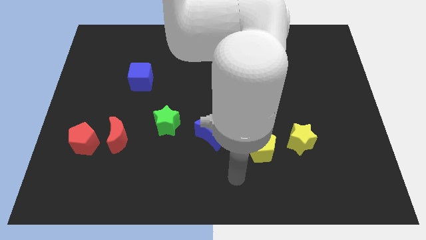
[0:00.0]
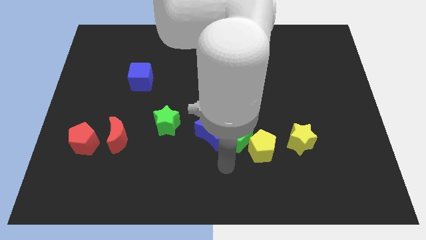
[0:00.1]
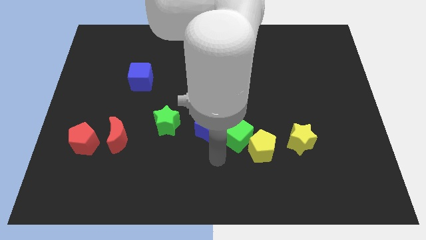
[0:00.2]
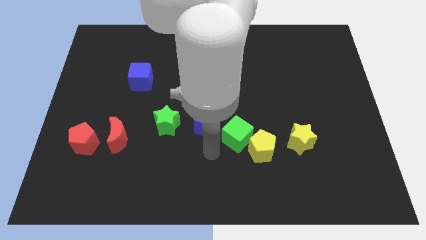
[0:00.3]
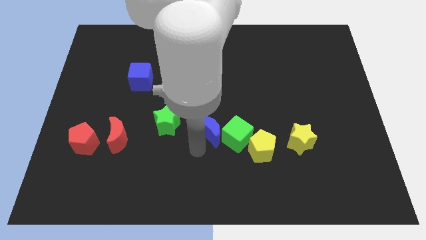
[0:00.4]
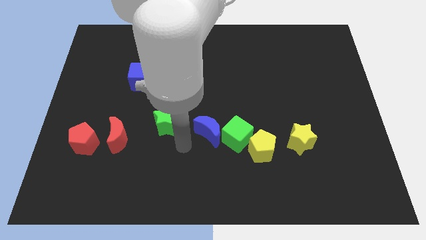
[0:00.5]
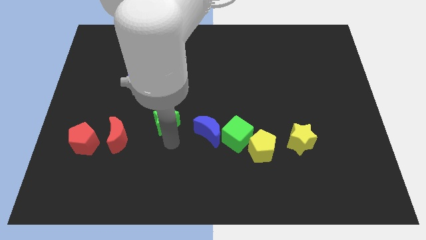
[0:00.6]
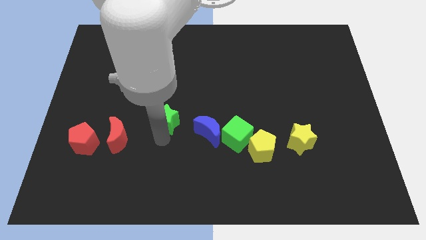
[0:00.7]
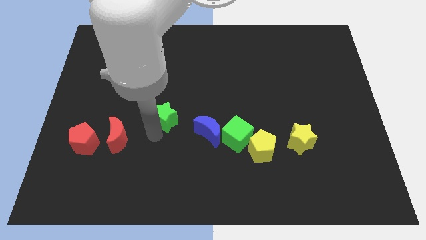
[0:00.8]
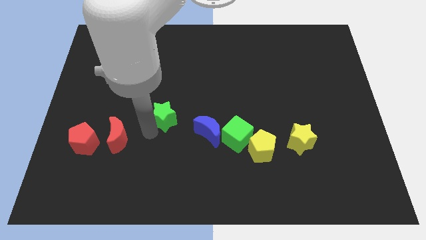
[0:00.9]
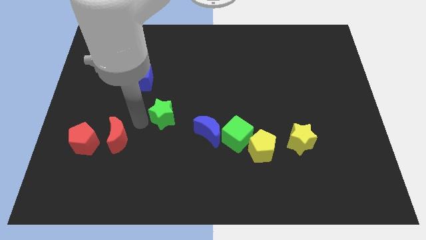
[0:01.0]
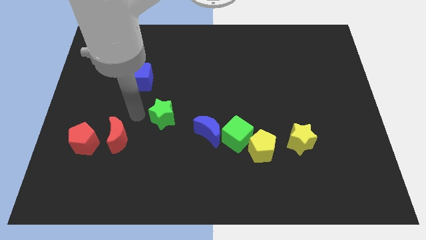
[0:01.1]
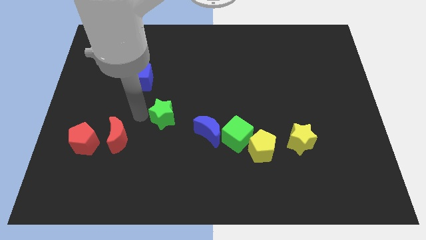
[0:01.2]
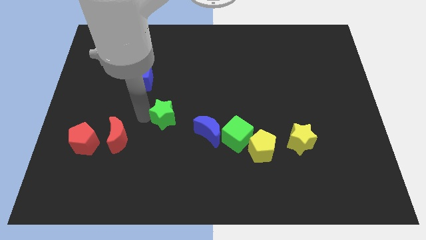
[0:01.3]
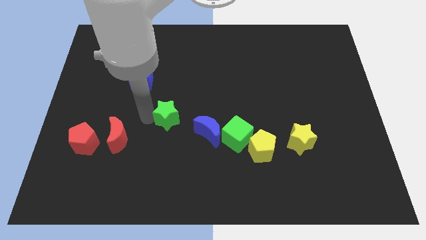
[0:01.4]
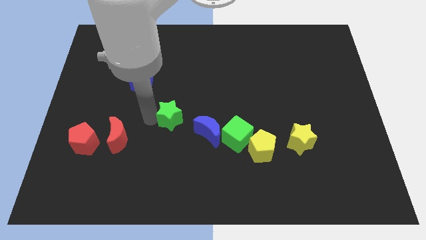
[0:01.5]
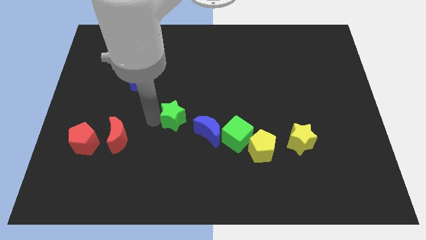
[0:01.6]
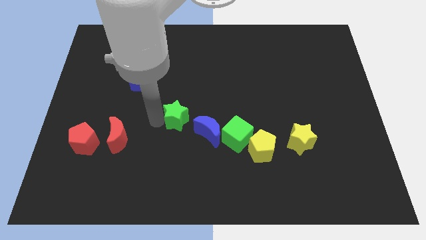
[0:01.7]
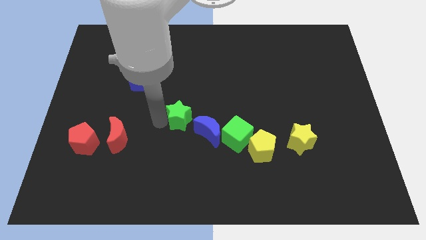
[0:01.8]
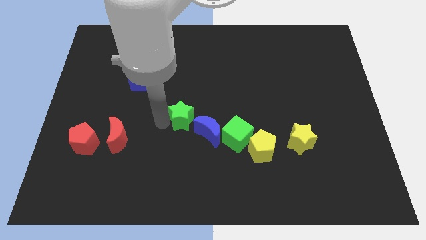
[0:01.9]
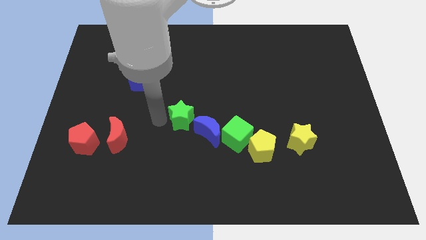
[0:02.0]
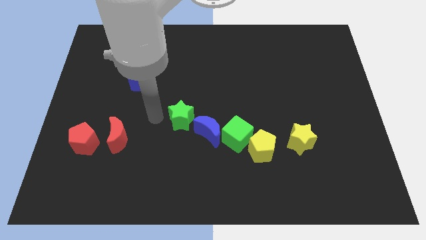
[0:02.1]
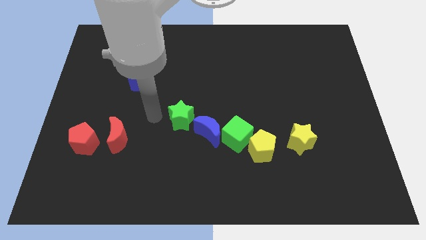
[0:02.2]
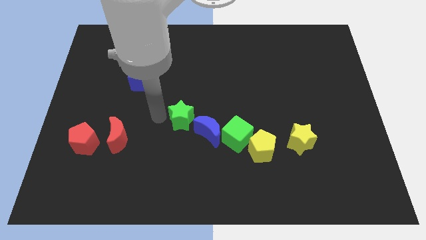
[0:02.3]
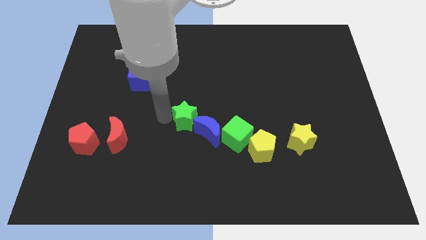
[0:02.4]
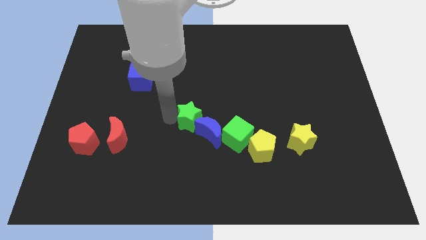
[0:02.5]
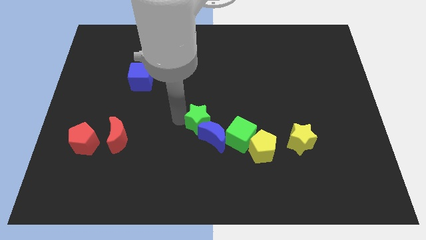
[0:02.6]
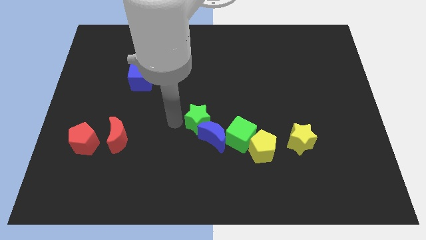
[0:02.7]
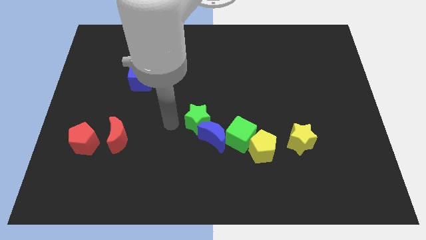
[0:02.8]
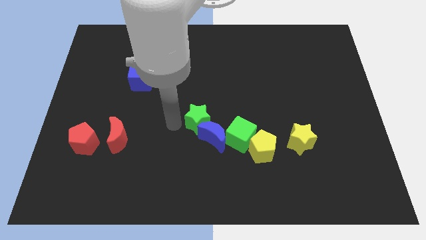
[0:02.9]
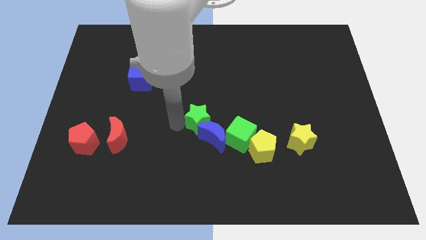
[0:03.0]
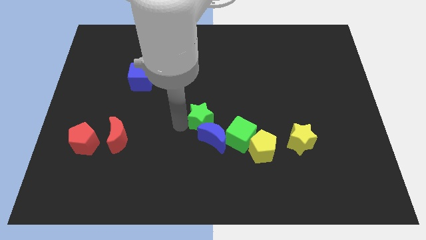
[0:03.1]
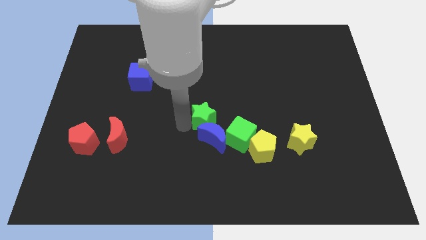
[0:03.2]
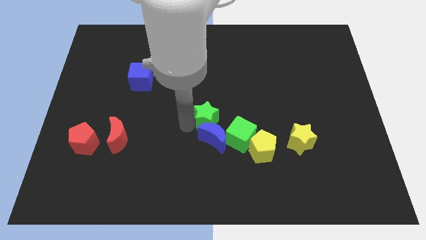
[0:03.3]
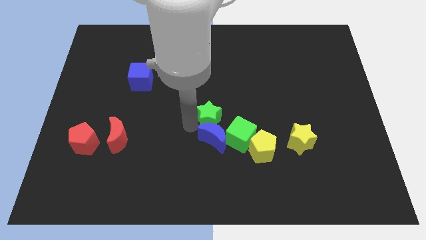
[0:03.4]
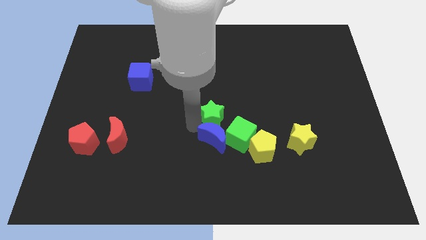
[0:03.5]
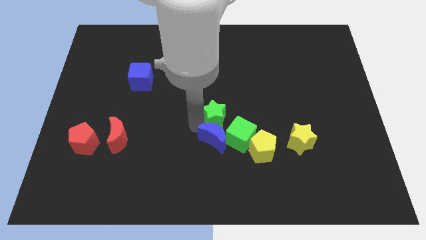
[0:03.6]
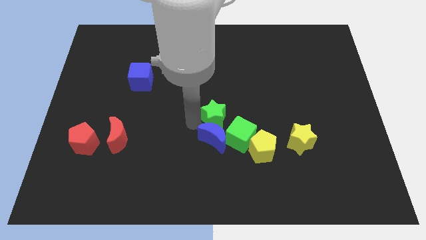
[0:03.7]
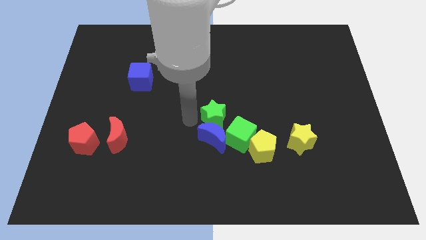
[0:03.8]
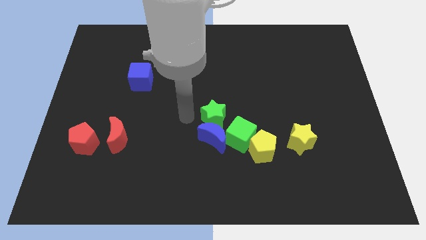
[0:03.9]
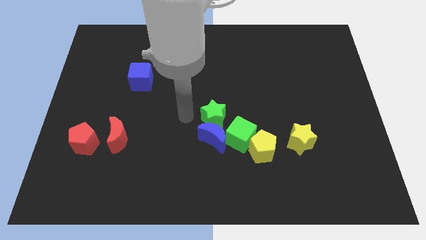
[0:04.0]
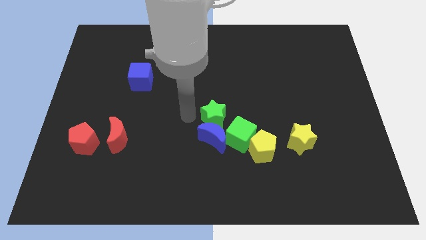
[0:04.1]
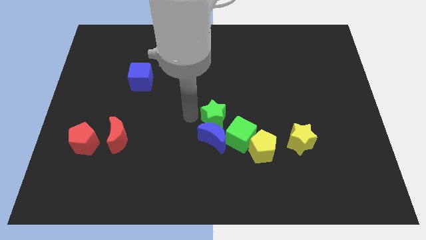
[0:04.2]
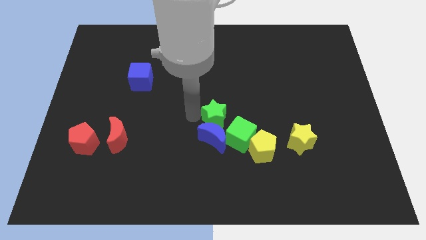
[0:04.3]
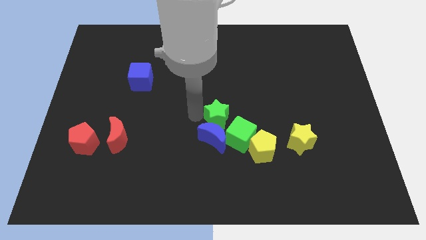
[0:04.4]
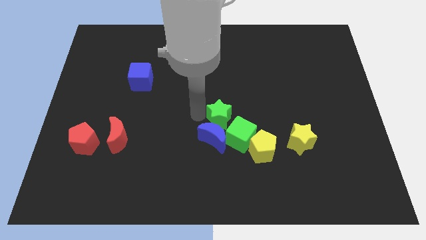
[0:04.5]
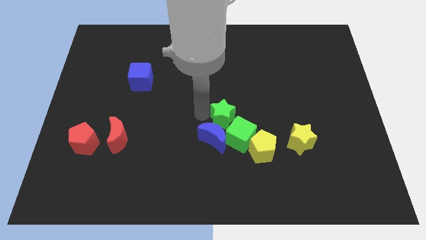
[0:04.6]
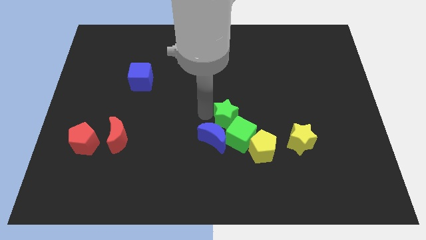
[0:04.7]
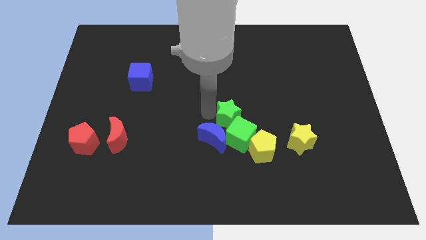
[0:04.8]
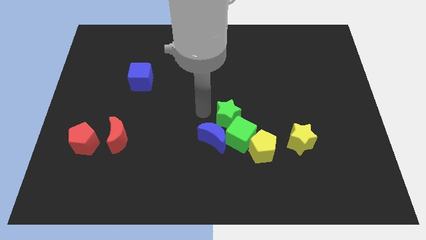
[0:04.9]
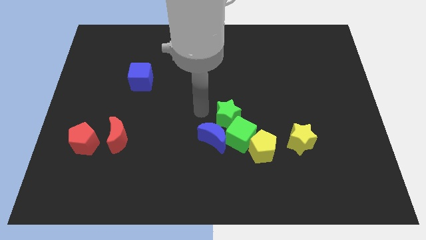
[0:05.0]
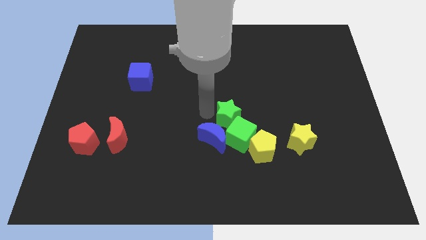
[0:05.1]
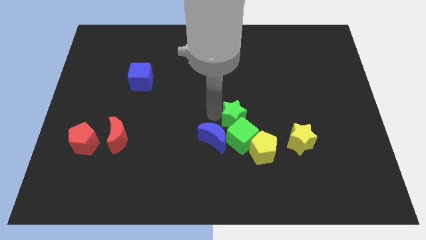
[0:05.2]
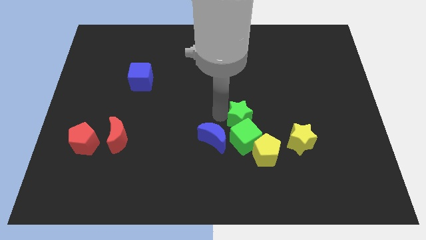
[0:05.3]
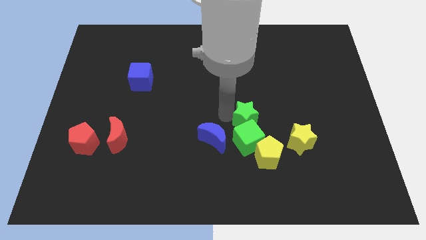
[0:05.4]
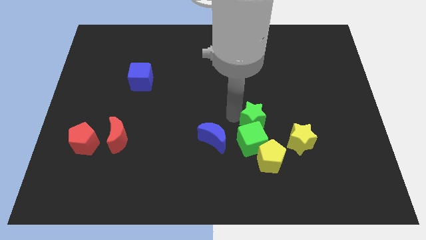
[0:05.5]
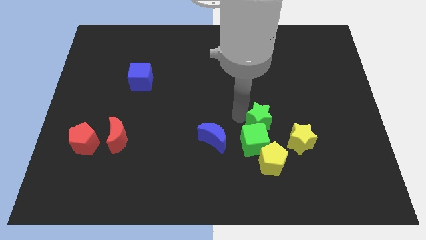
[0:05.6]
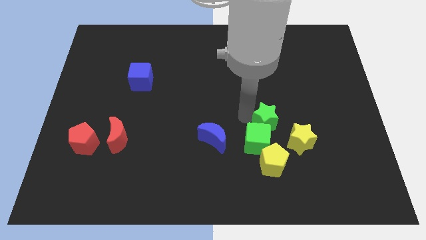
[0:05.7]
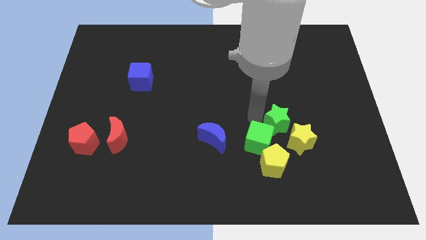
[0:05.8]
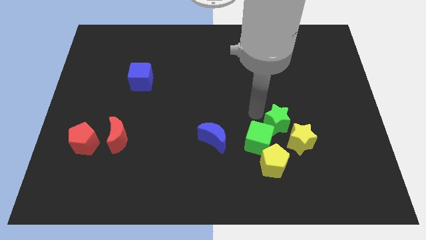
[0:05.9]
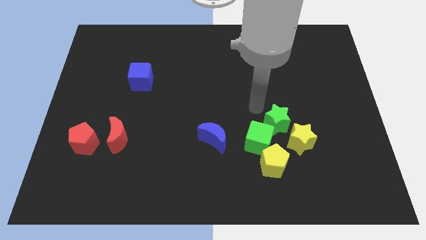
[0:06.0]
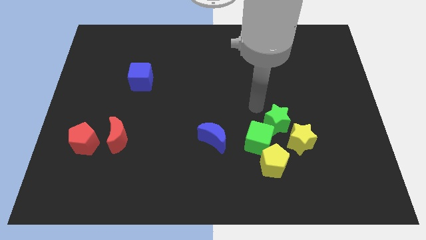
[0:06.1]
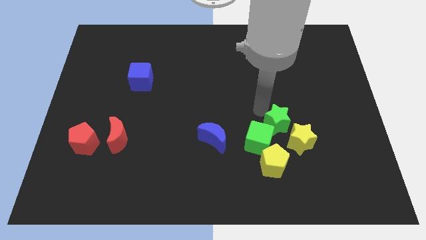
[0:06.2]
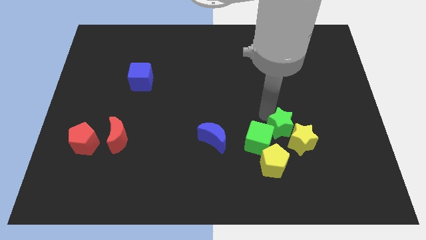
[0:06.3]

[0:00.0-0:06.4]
slide the green star towards the yellow star
